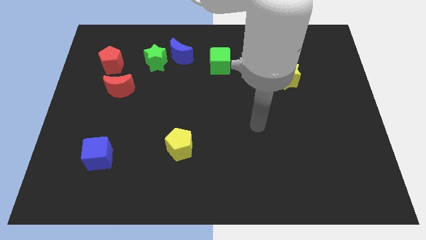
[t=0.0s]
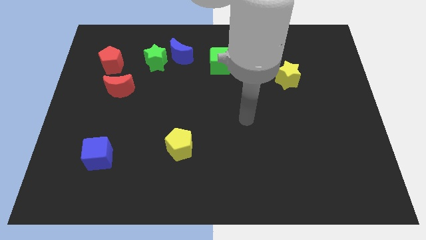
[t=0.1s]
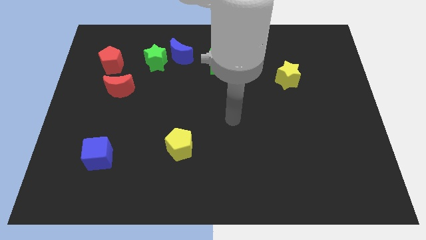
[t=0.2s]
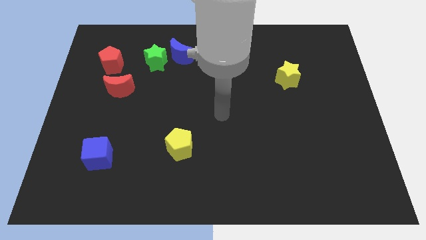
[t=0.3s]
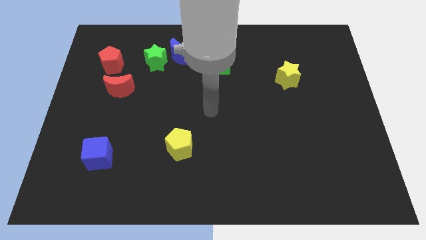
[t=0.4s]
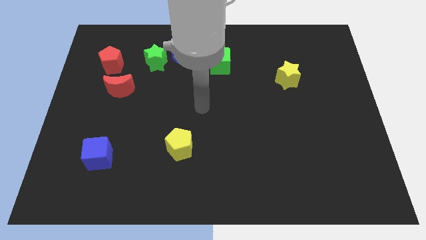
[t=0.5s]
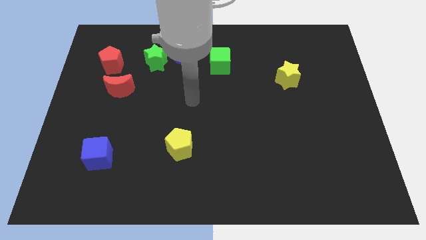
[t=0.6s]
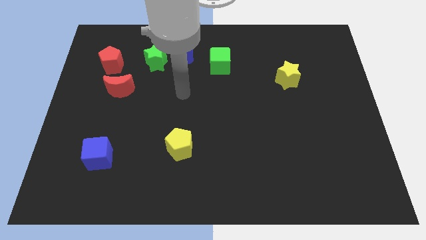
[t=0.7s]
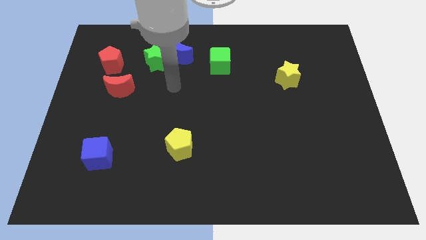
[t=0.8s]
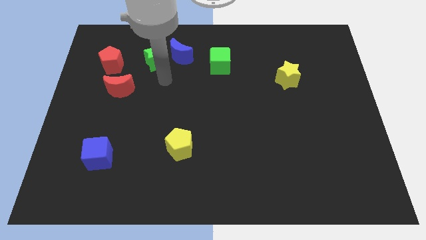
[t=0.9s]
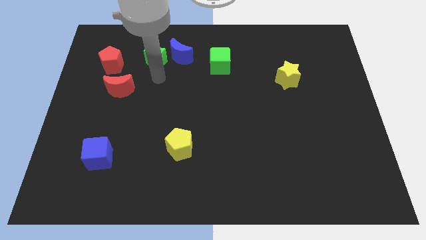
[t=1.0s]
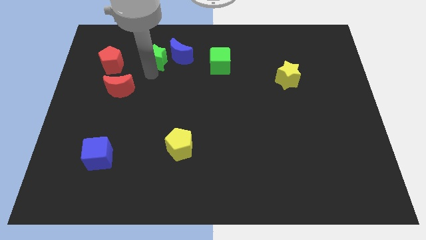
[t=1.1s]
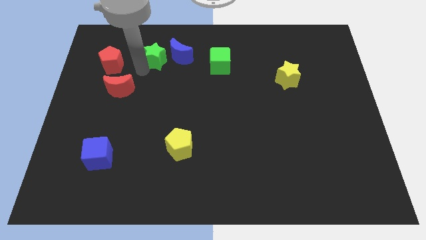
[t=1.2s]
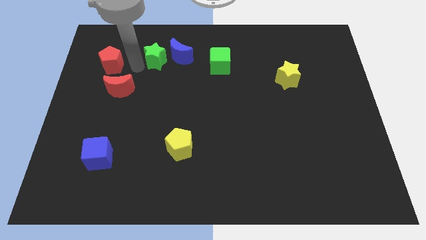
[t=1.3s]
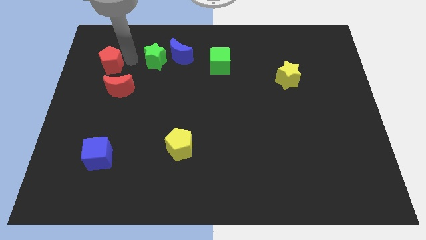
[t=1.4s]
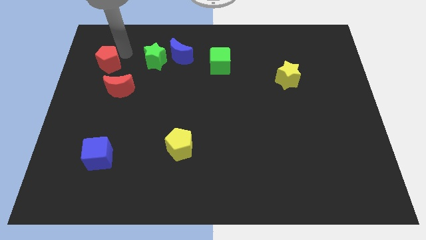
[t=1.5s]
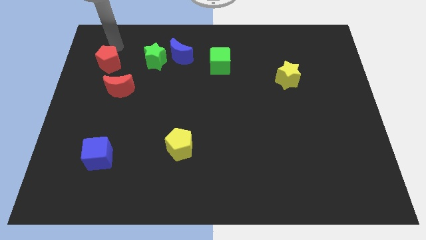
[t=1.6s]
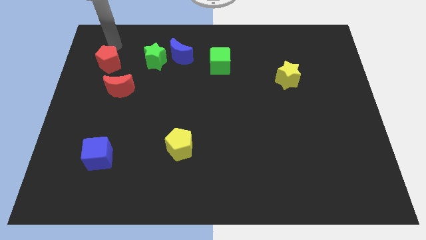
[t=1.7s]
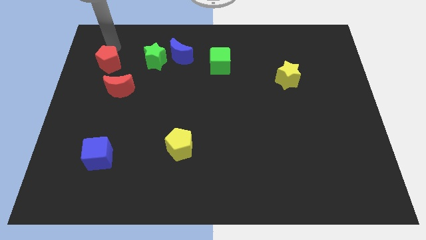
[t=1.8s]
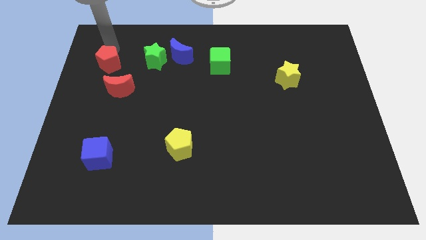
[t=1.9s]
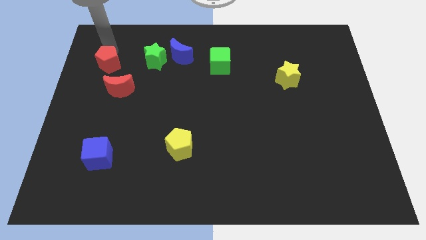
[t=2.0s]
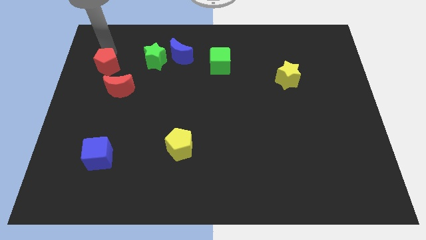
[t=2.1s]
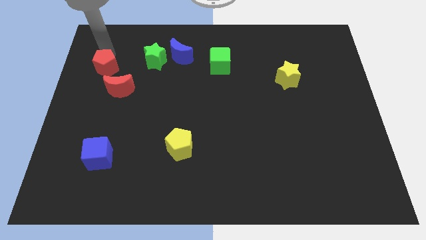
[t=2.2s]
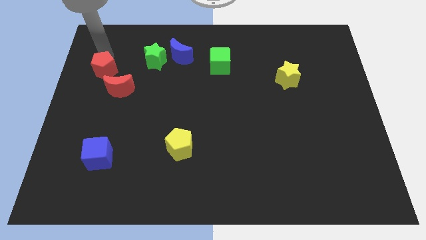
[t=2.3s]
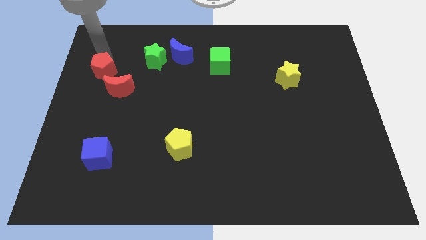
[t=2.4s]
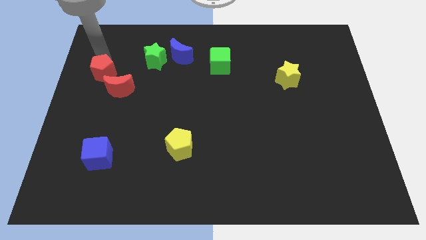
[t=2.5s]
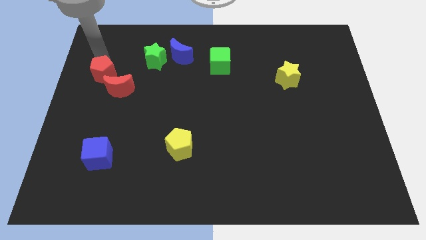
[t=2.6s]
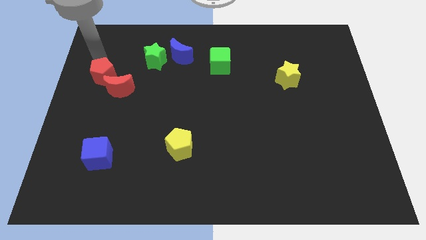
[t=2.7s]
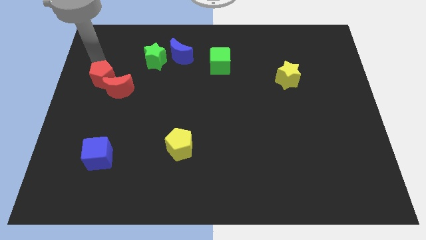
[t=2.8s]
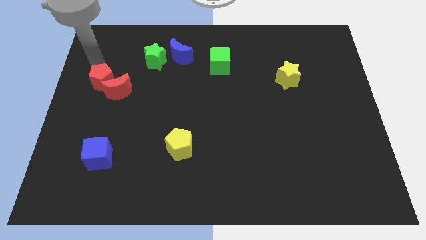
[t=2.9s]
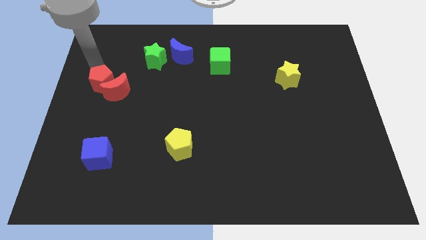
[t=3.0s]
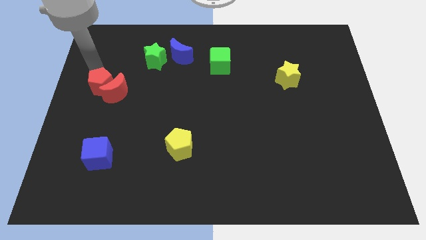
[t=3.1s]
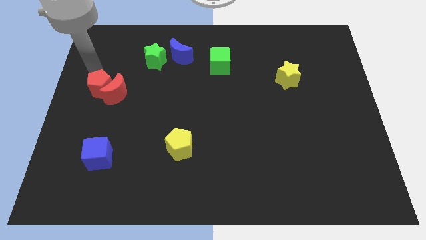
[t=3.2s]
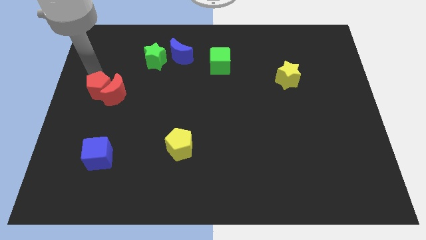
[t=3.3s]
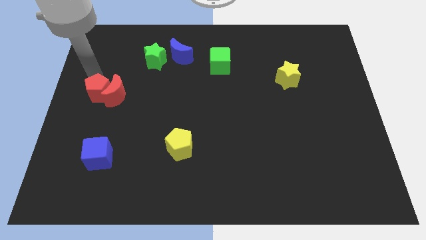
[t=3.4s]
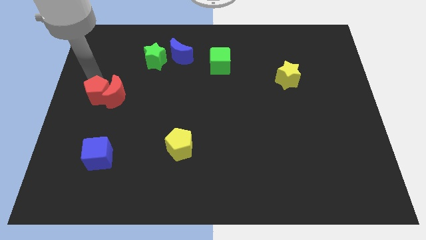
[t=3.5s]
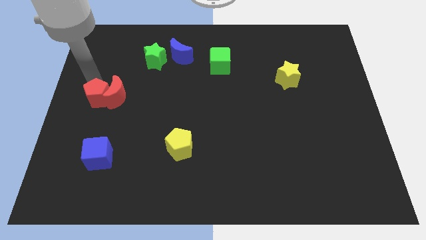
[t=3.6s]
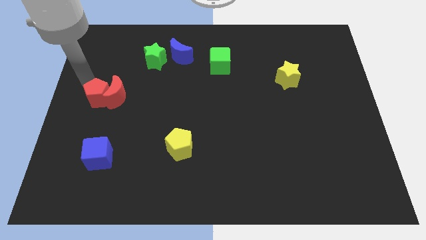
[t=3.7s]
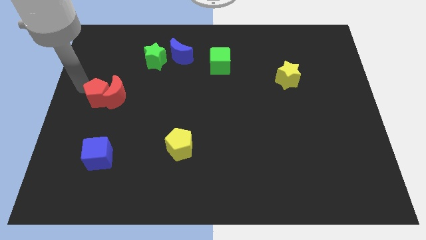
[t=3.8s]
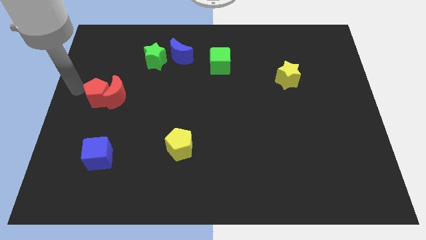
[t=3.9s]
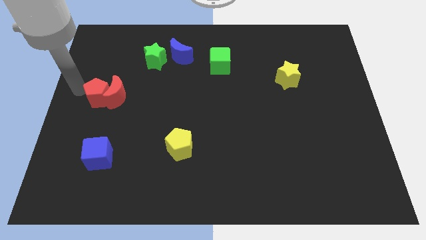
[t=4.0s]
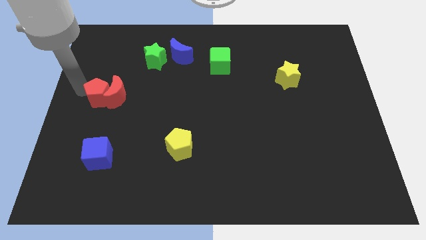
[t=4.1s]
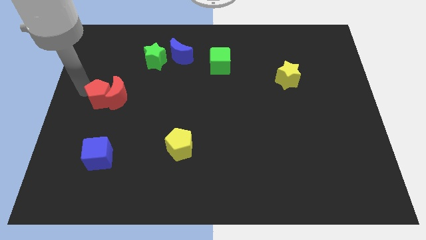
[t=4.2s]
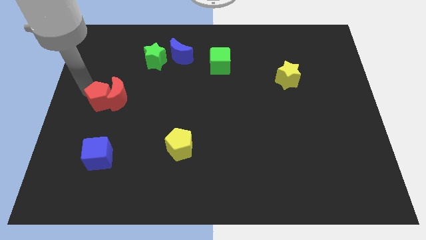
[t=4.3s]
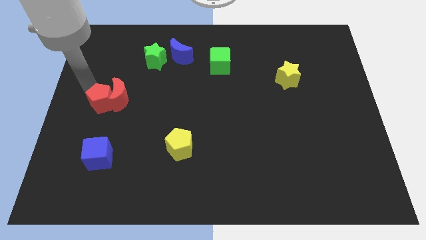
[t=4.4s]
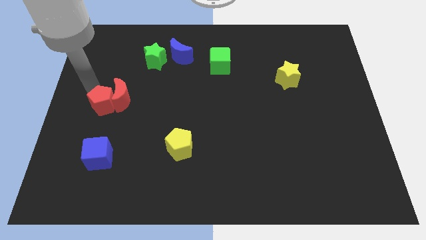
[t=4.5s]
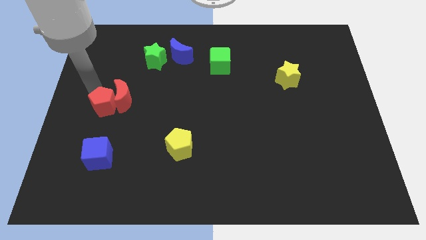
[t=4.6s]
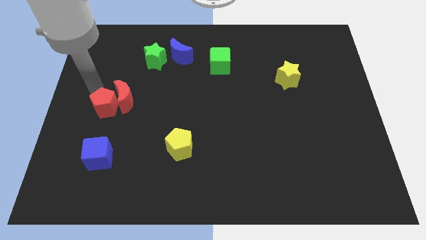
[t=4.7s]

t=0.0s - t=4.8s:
push the red pentagon slightly downwards and then to the right

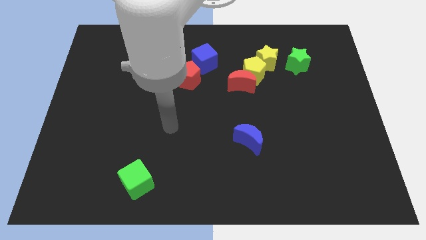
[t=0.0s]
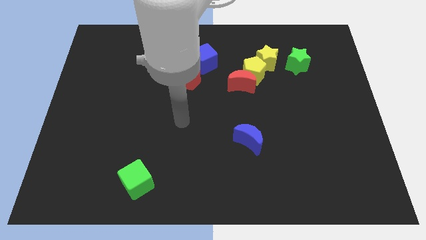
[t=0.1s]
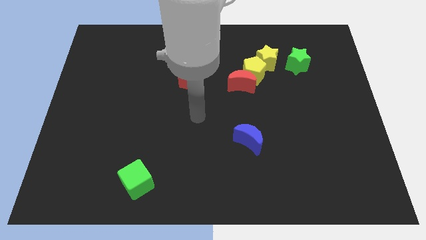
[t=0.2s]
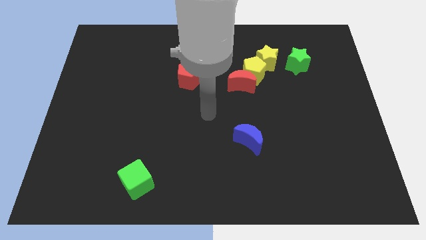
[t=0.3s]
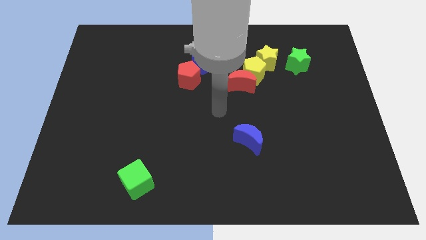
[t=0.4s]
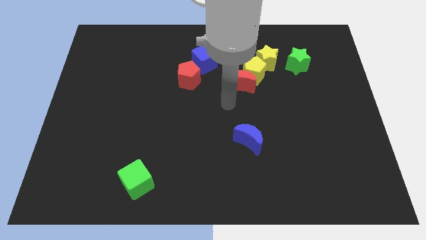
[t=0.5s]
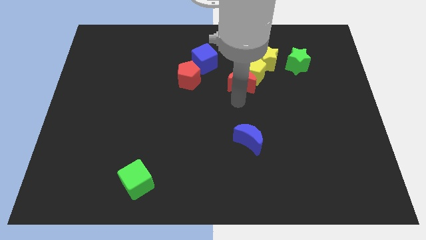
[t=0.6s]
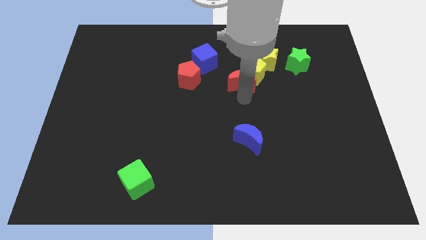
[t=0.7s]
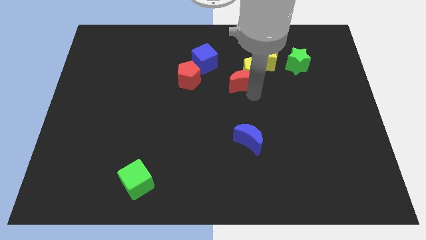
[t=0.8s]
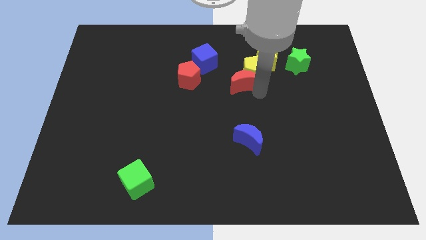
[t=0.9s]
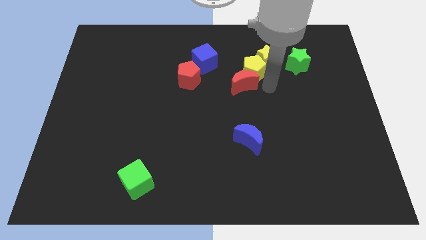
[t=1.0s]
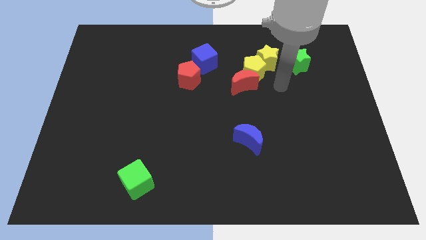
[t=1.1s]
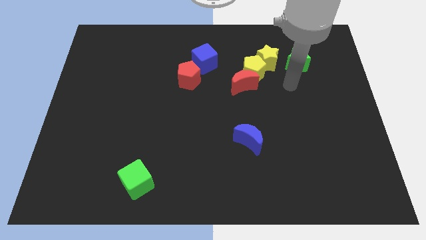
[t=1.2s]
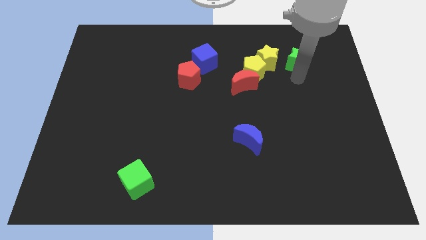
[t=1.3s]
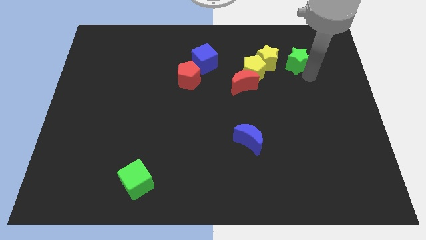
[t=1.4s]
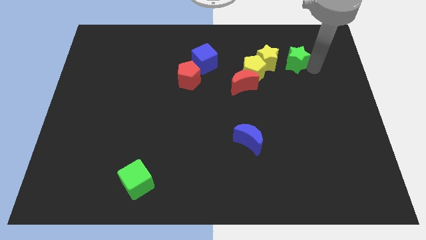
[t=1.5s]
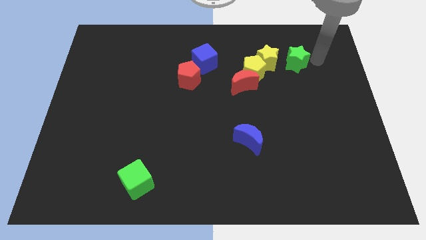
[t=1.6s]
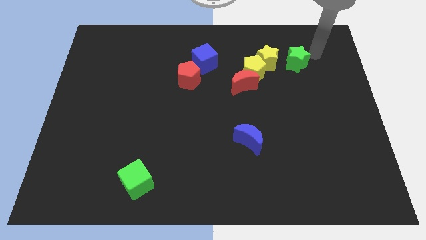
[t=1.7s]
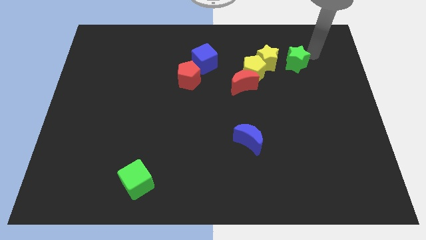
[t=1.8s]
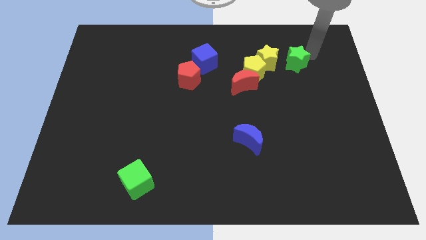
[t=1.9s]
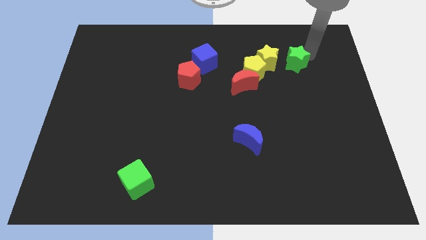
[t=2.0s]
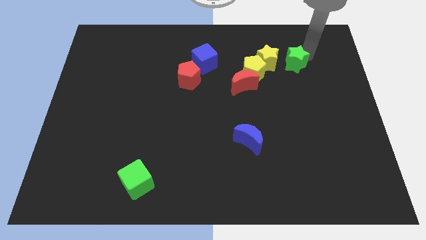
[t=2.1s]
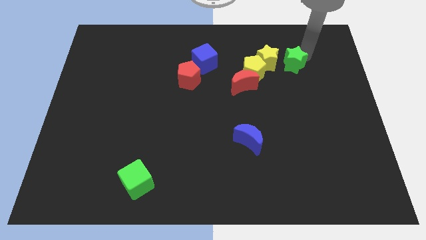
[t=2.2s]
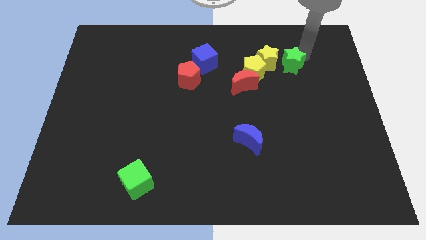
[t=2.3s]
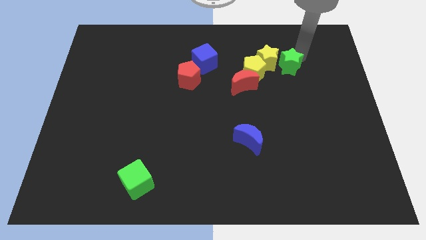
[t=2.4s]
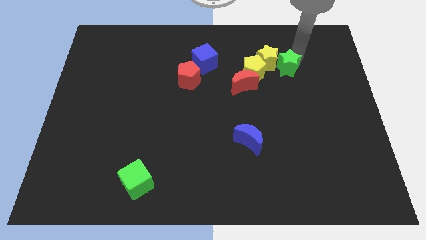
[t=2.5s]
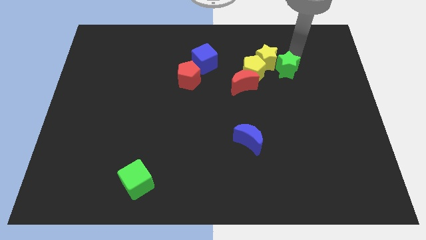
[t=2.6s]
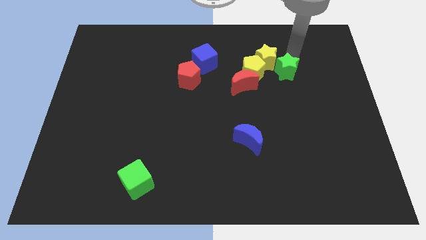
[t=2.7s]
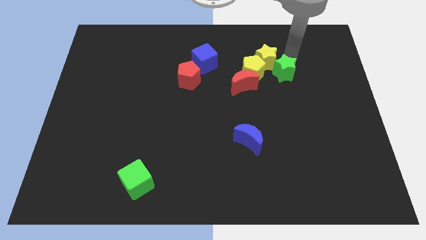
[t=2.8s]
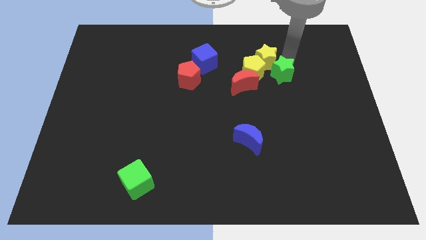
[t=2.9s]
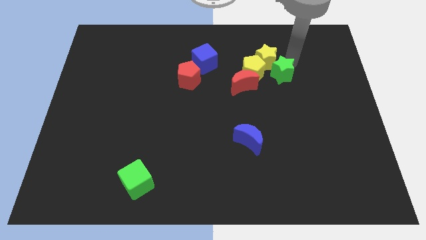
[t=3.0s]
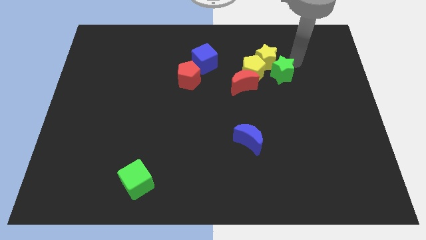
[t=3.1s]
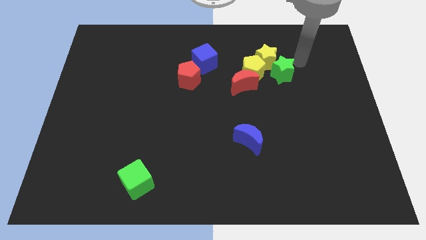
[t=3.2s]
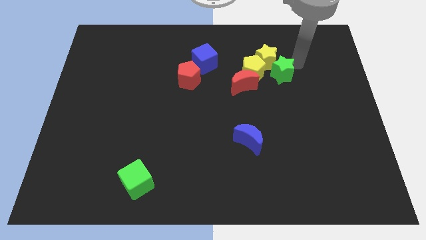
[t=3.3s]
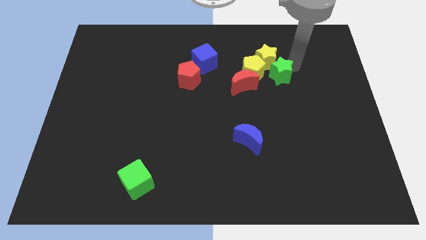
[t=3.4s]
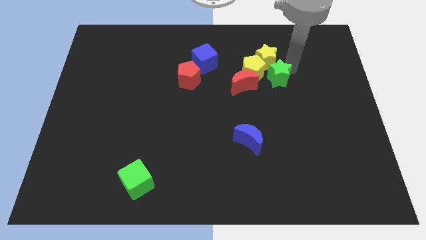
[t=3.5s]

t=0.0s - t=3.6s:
move the green star a bit downwards and left diagonally
